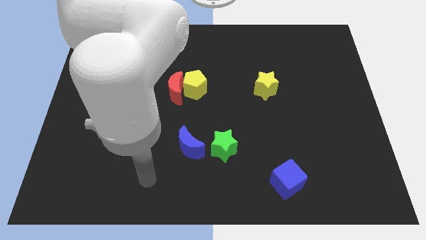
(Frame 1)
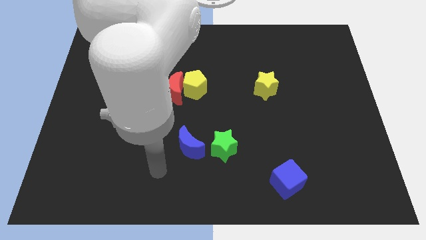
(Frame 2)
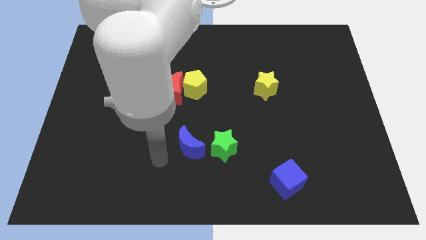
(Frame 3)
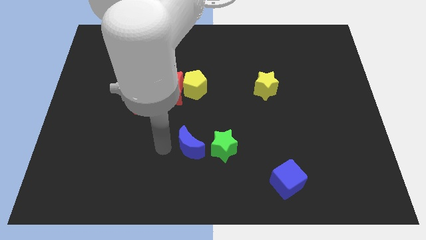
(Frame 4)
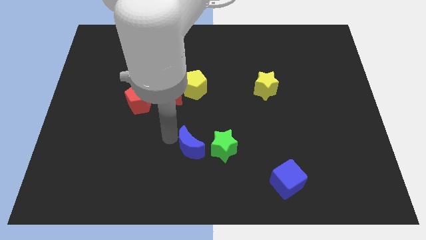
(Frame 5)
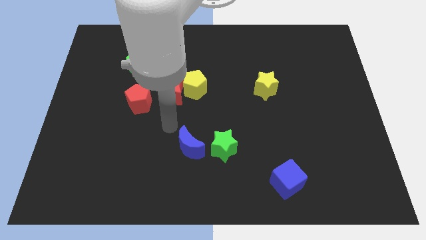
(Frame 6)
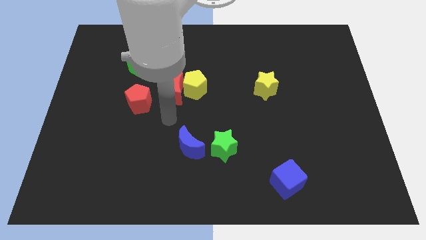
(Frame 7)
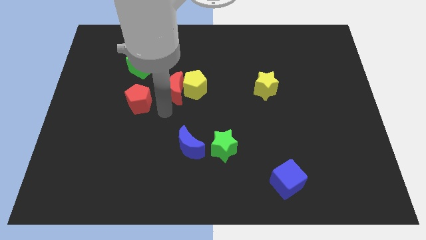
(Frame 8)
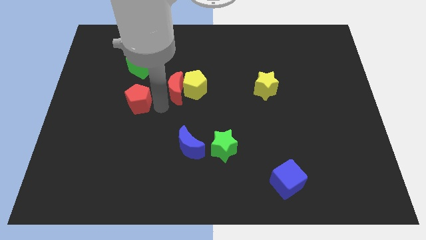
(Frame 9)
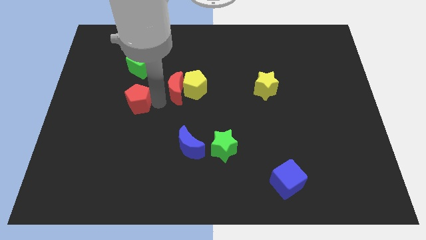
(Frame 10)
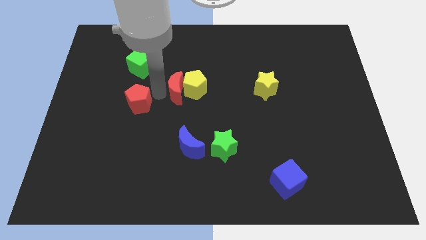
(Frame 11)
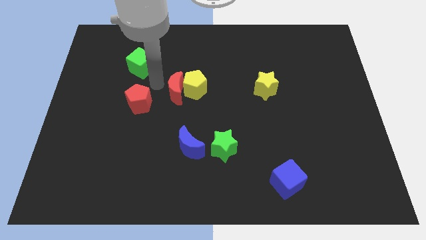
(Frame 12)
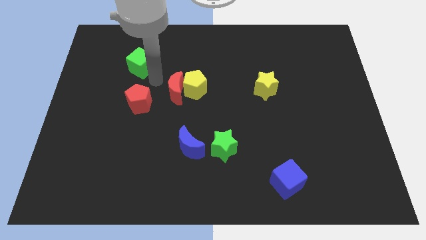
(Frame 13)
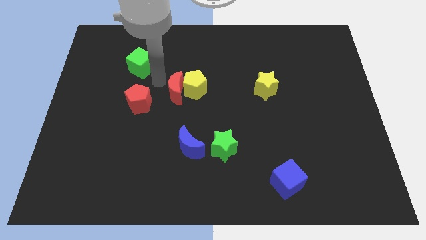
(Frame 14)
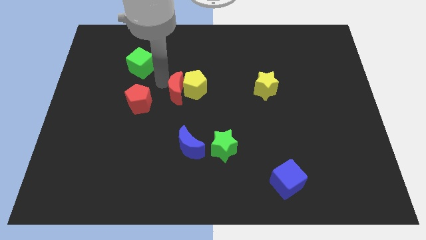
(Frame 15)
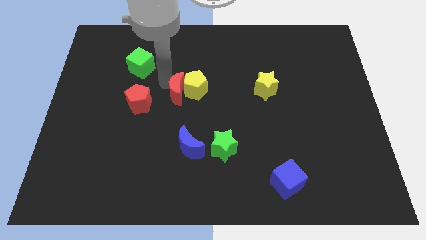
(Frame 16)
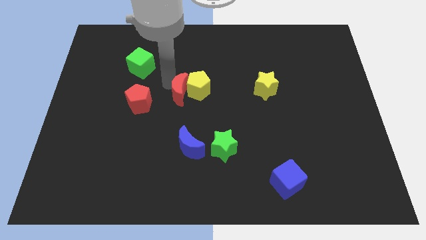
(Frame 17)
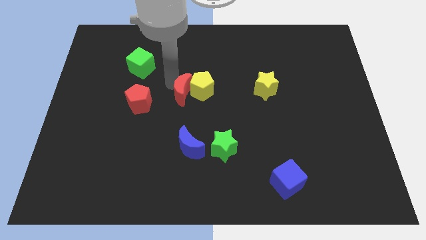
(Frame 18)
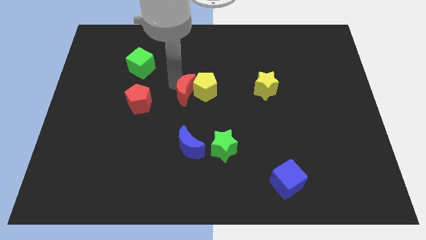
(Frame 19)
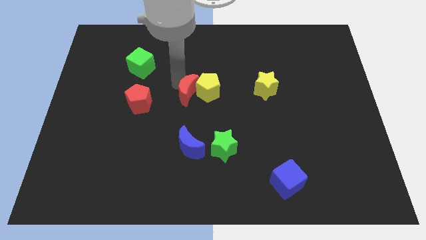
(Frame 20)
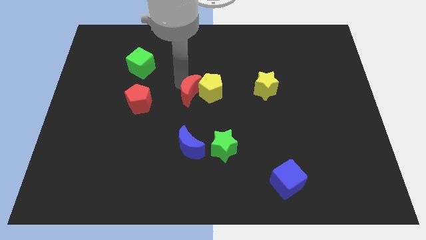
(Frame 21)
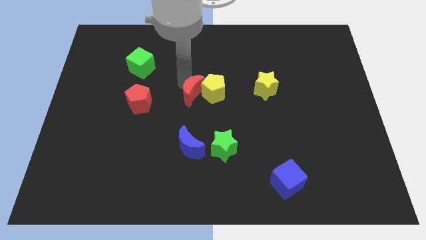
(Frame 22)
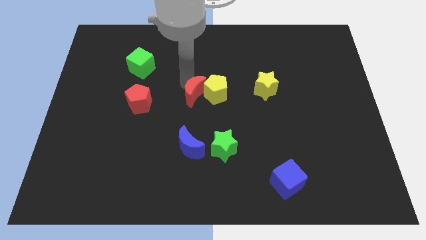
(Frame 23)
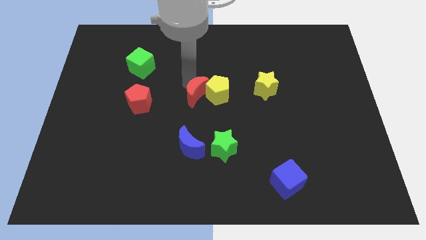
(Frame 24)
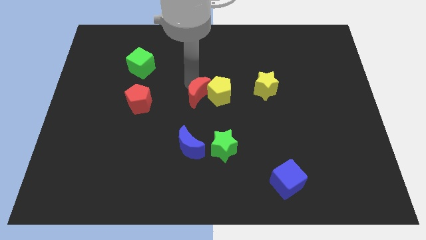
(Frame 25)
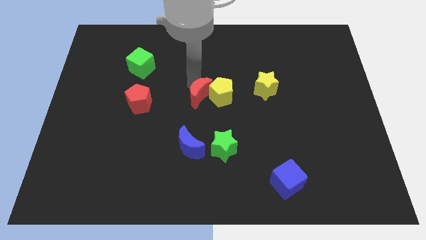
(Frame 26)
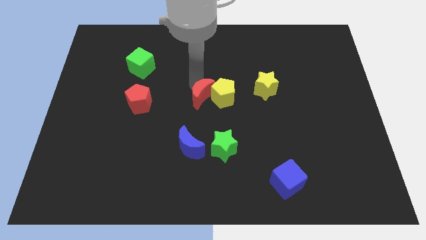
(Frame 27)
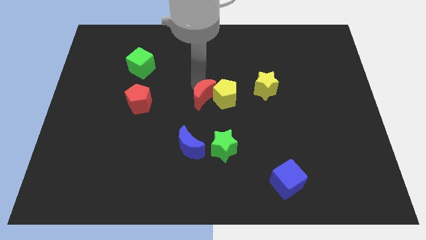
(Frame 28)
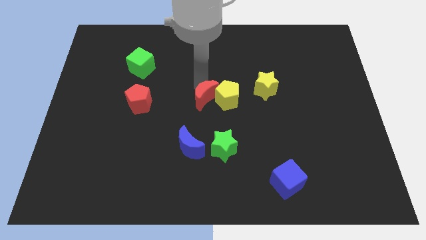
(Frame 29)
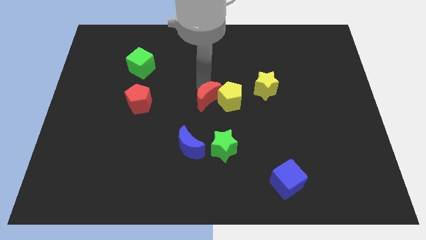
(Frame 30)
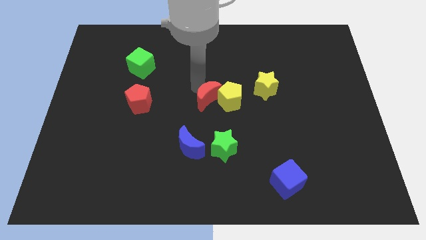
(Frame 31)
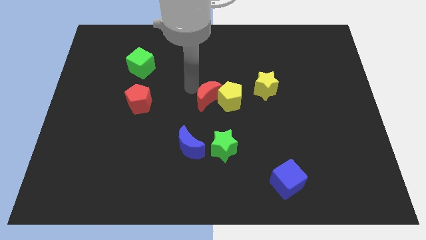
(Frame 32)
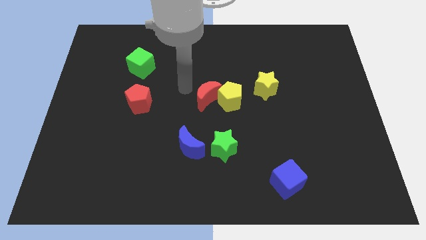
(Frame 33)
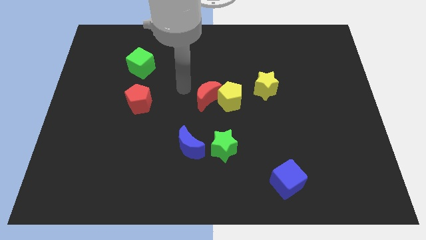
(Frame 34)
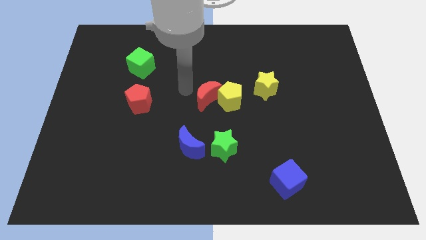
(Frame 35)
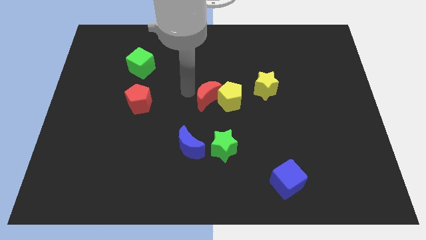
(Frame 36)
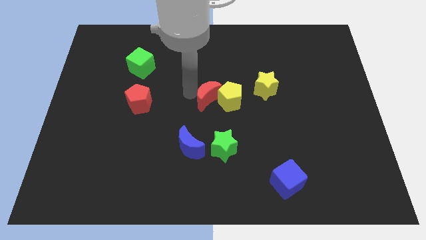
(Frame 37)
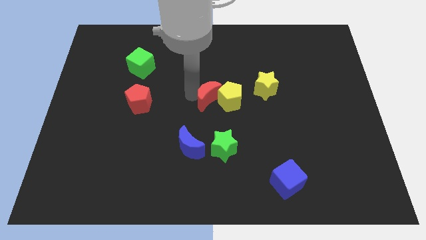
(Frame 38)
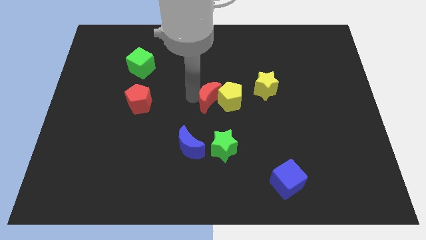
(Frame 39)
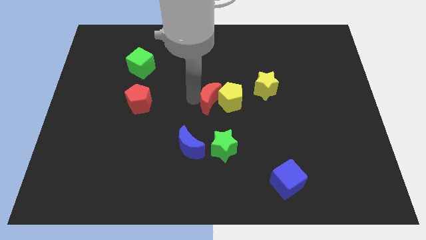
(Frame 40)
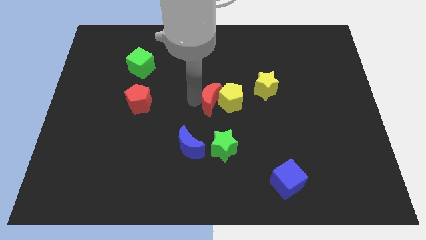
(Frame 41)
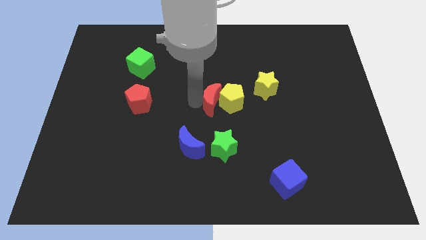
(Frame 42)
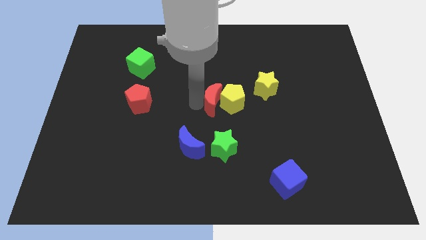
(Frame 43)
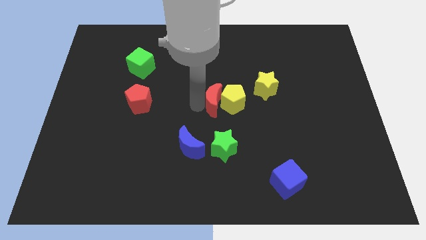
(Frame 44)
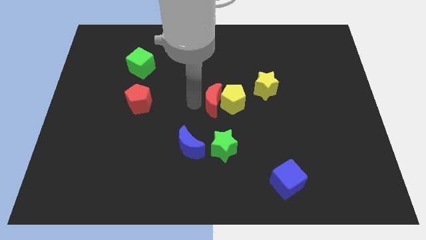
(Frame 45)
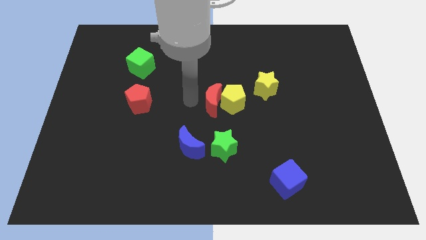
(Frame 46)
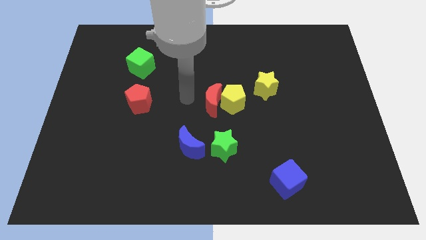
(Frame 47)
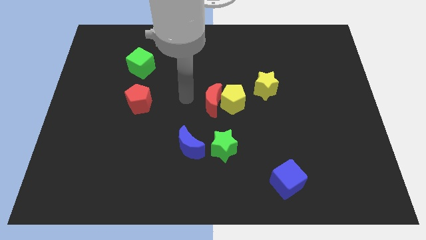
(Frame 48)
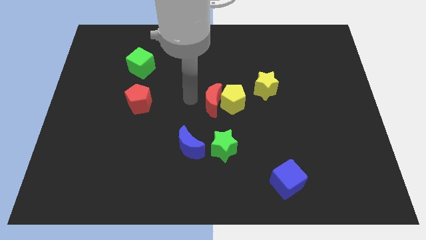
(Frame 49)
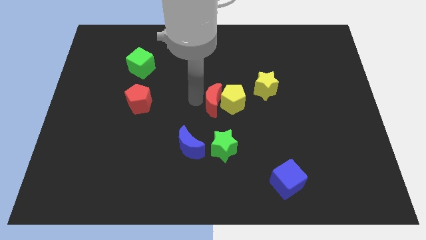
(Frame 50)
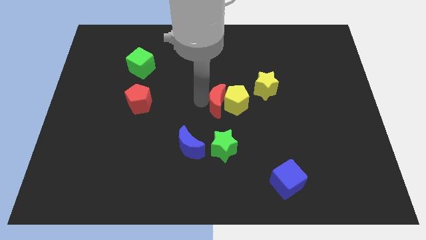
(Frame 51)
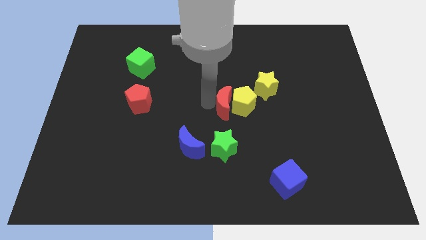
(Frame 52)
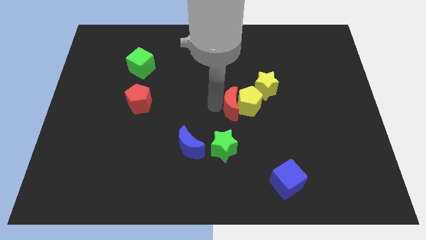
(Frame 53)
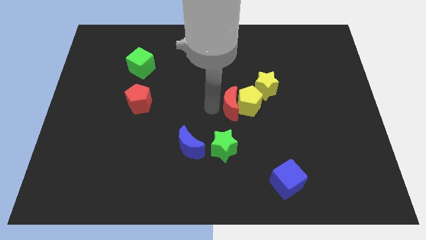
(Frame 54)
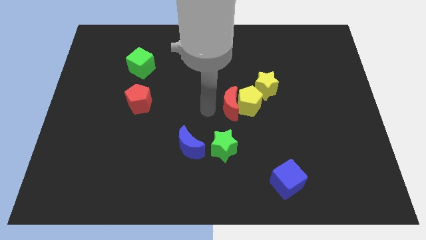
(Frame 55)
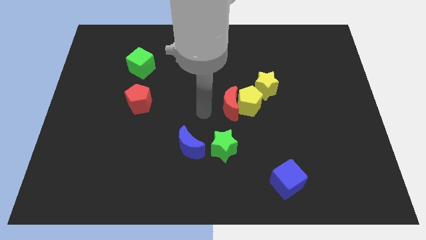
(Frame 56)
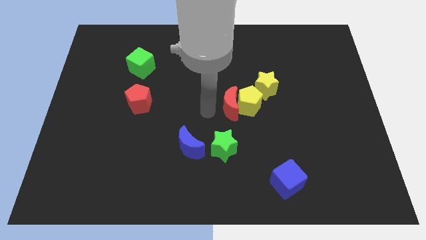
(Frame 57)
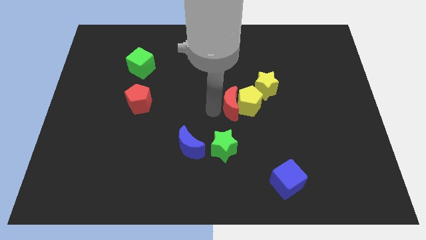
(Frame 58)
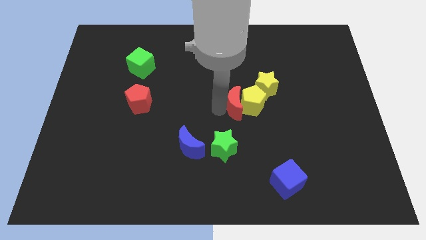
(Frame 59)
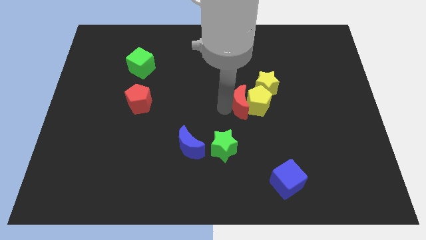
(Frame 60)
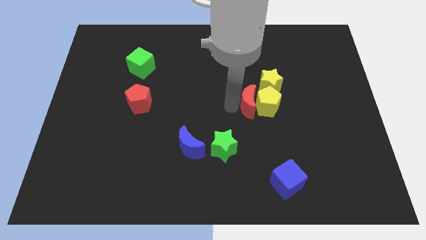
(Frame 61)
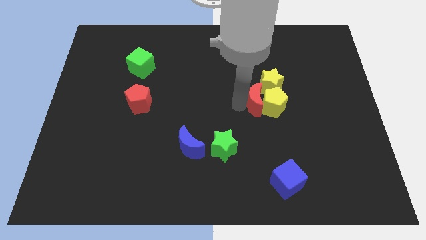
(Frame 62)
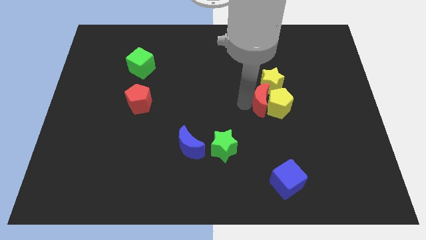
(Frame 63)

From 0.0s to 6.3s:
push the red moon right

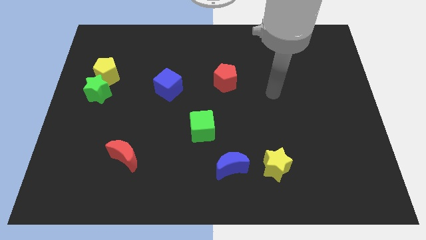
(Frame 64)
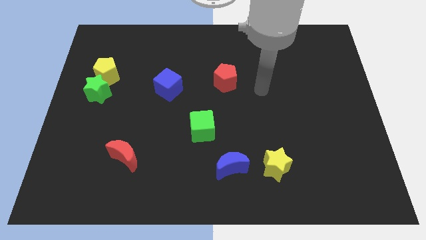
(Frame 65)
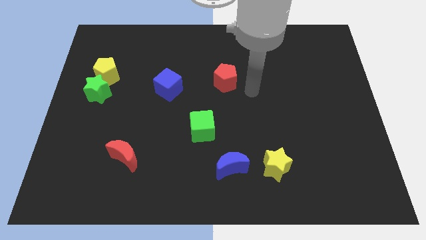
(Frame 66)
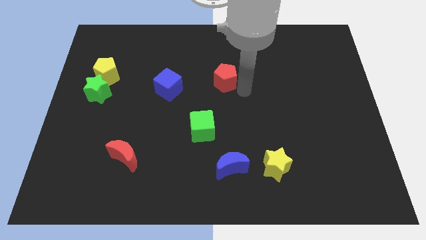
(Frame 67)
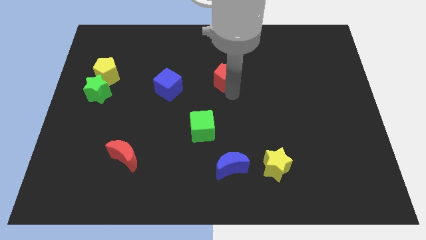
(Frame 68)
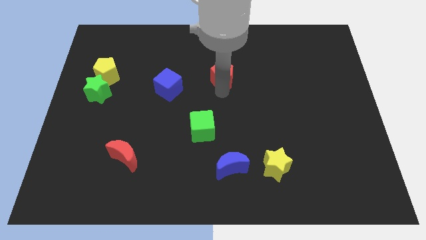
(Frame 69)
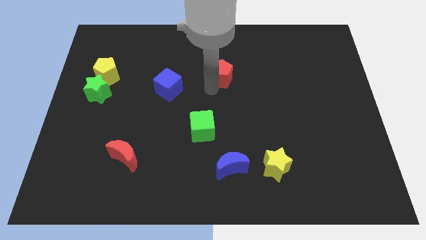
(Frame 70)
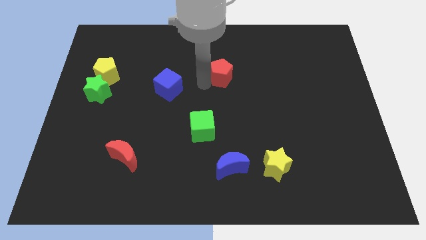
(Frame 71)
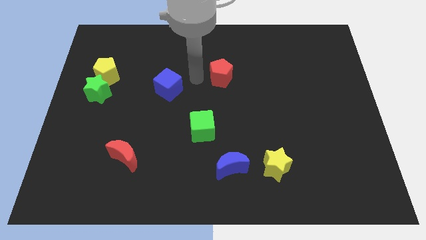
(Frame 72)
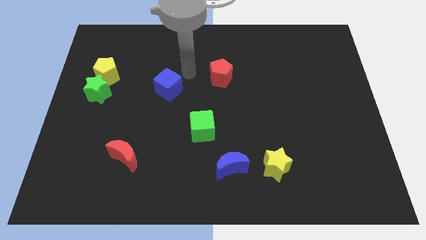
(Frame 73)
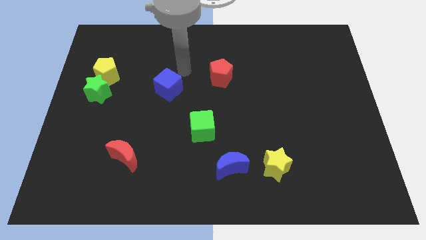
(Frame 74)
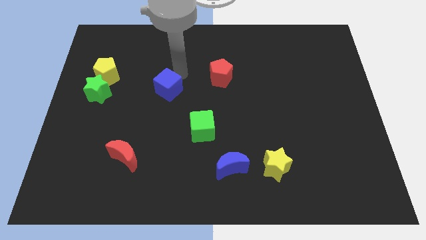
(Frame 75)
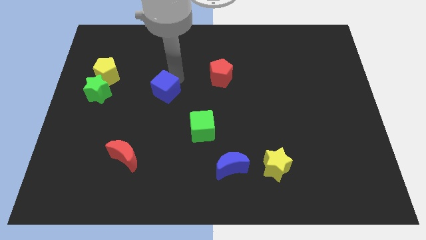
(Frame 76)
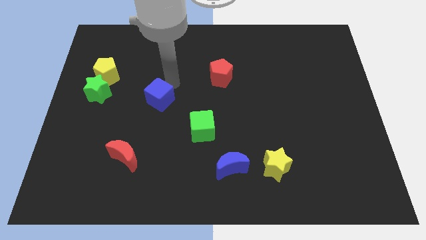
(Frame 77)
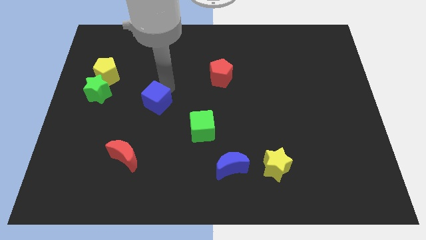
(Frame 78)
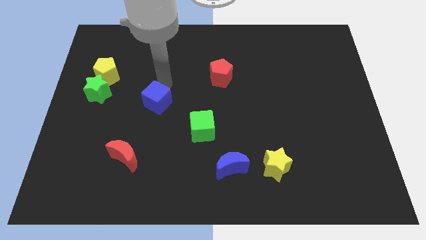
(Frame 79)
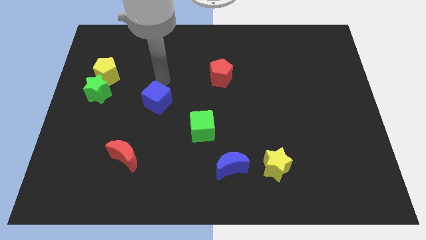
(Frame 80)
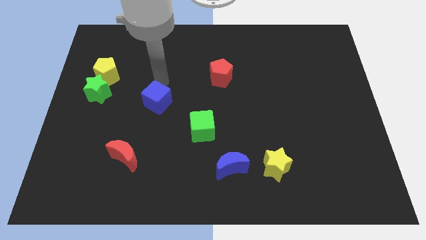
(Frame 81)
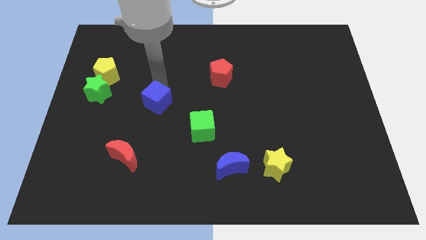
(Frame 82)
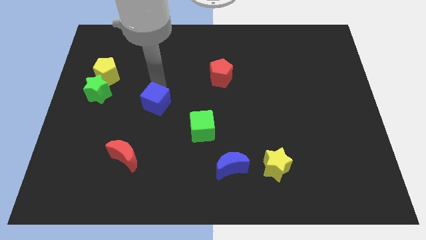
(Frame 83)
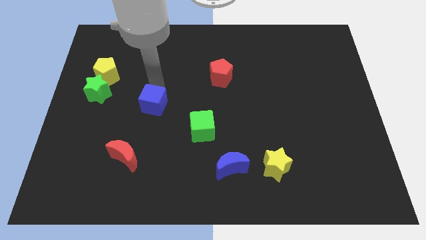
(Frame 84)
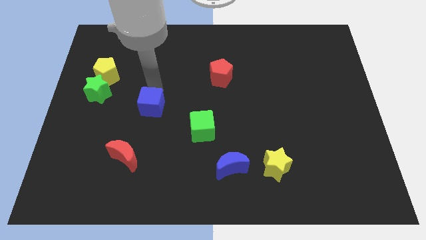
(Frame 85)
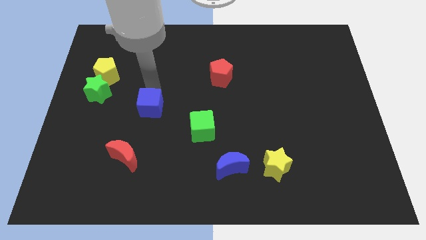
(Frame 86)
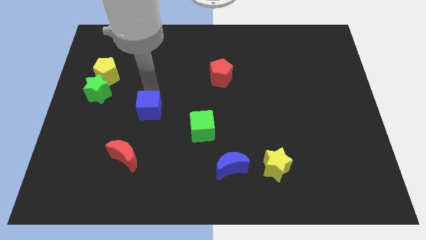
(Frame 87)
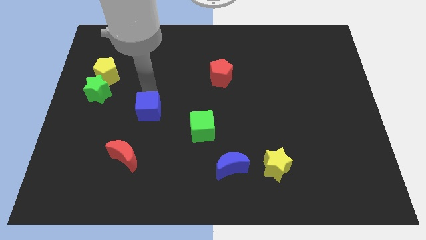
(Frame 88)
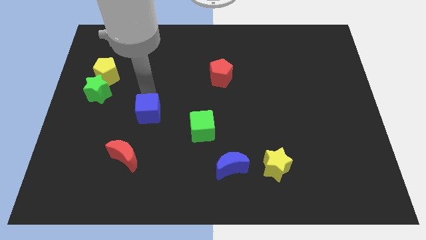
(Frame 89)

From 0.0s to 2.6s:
slightly move the blue cube downwards
